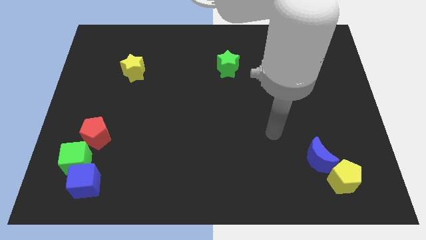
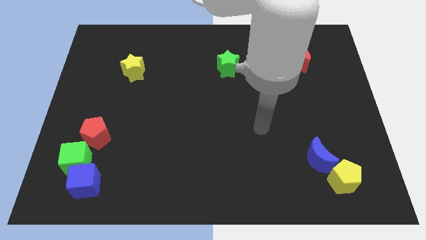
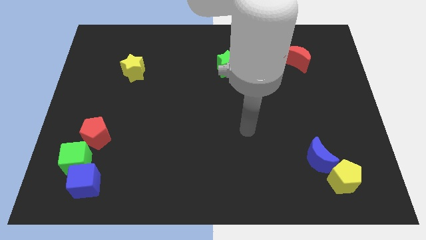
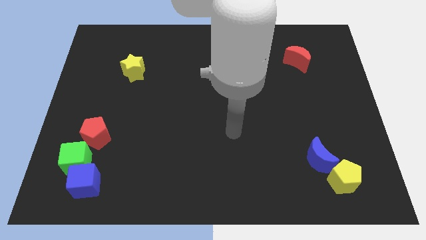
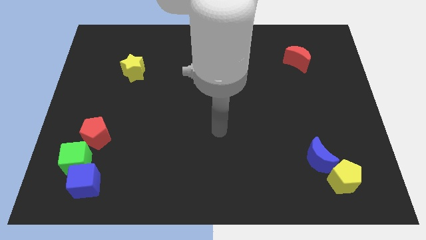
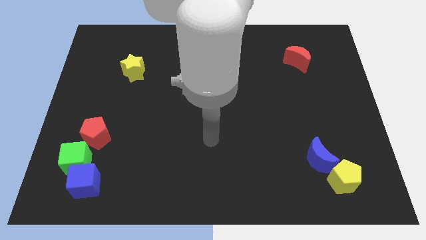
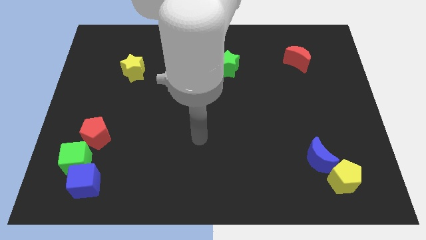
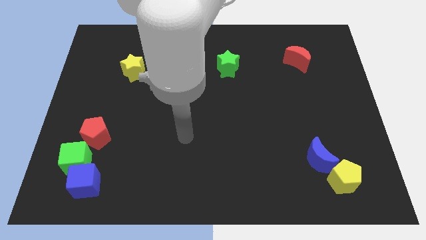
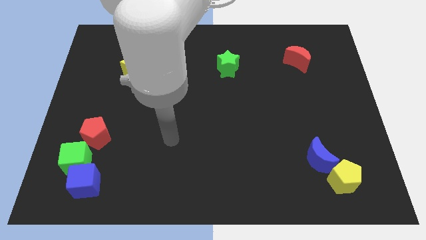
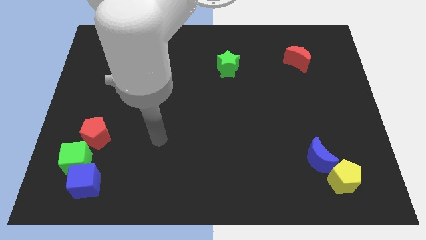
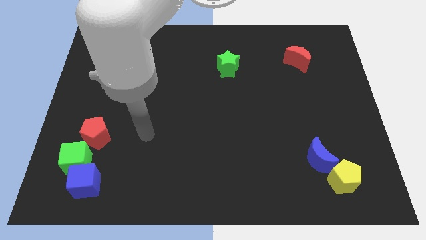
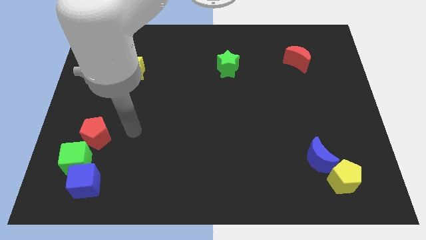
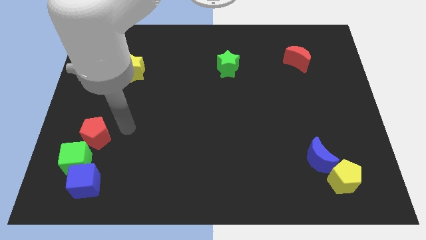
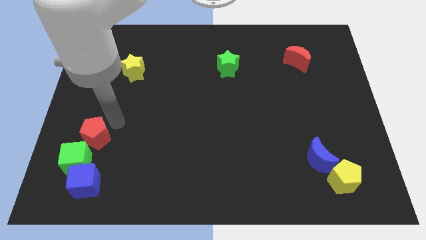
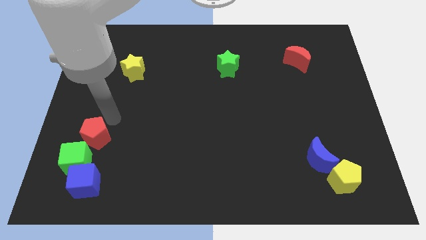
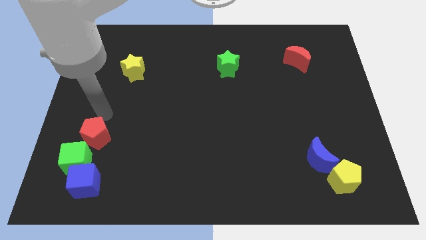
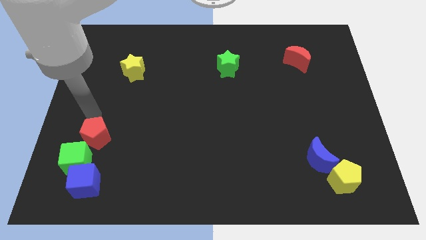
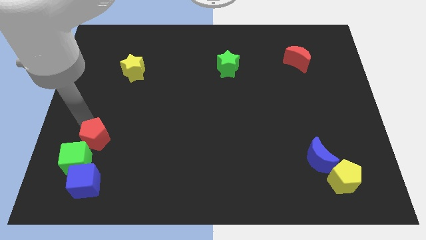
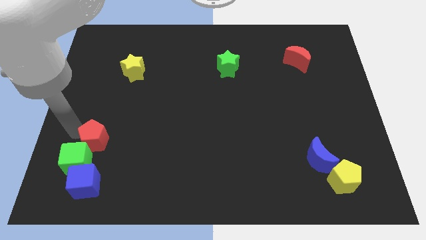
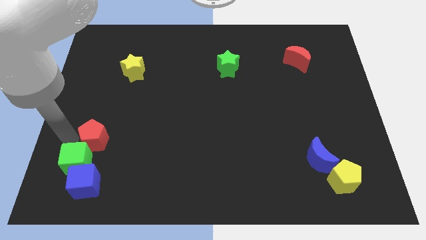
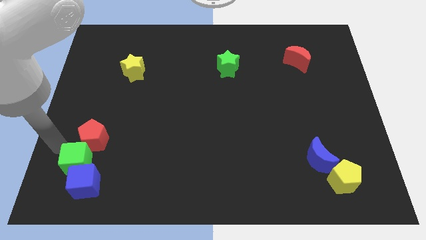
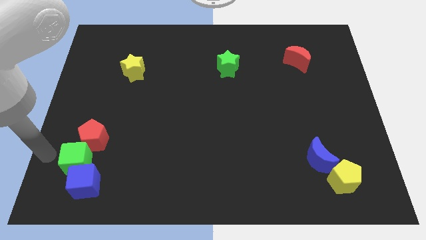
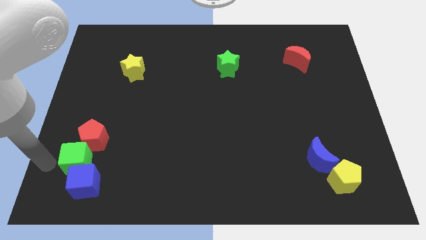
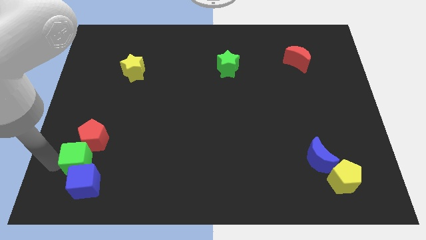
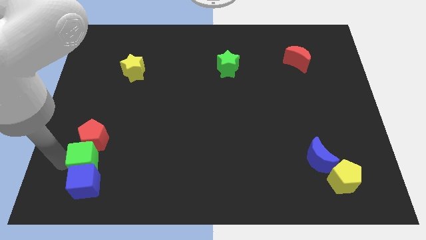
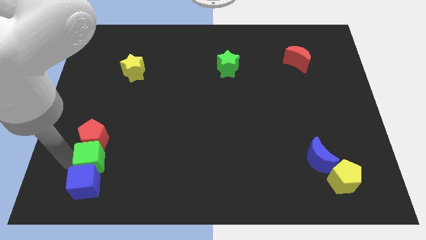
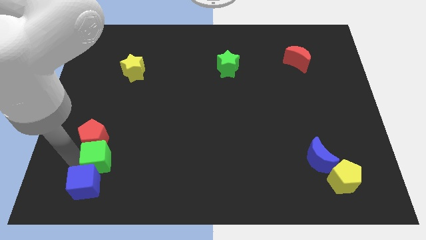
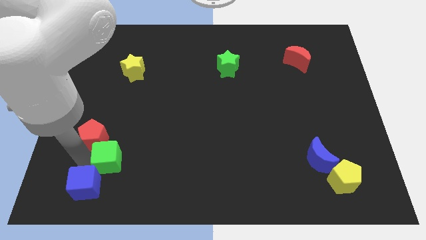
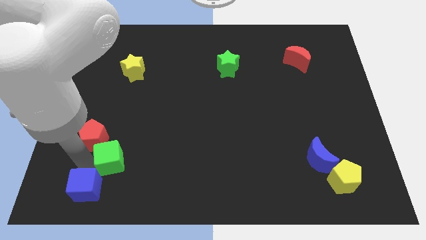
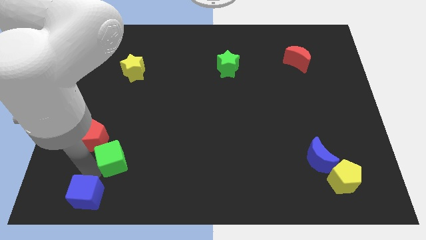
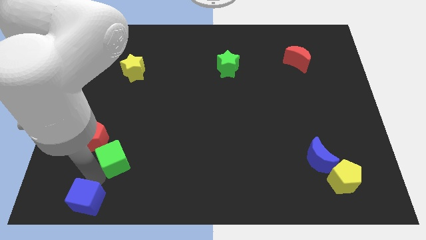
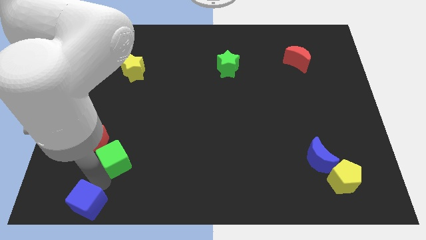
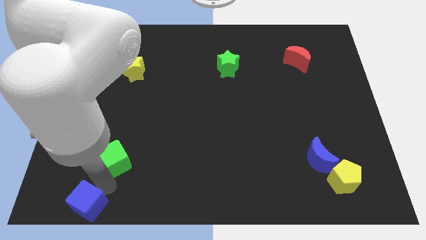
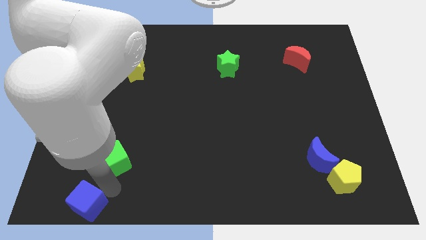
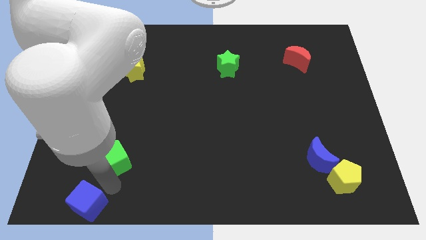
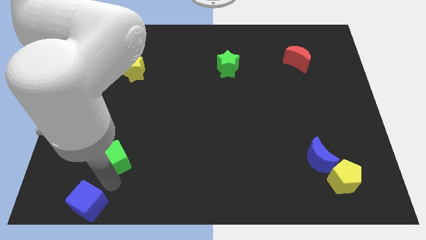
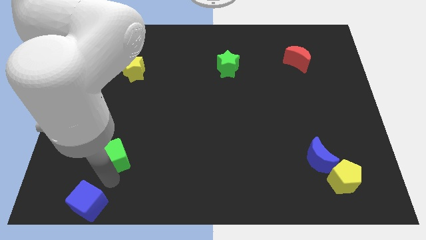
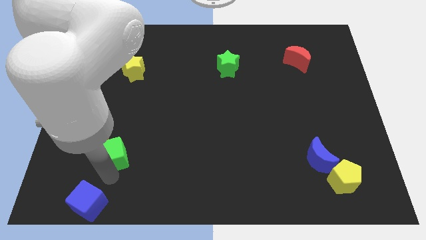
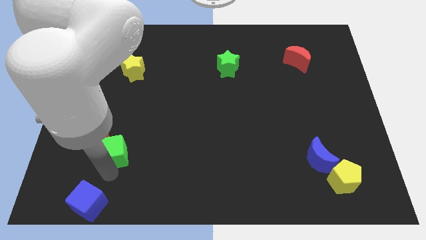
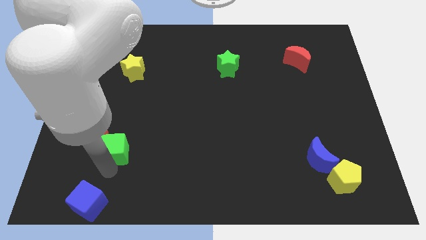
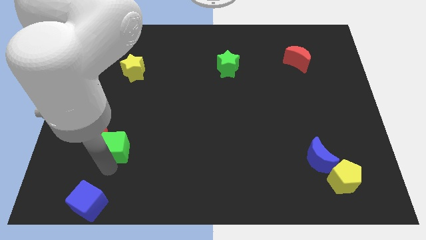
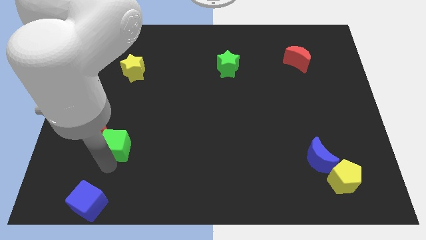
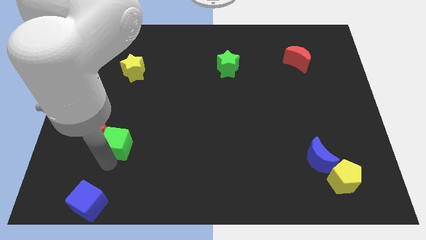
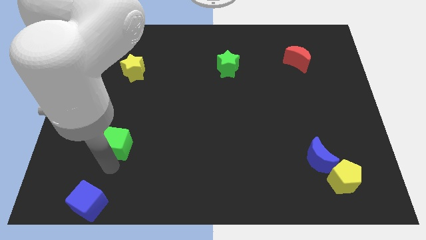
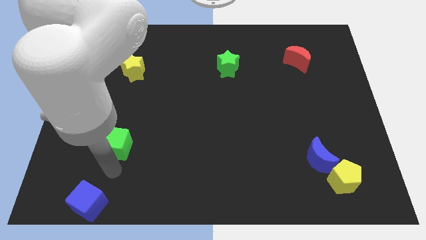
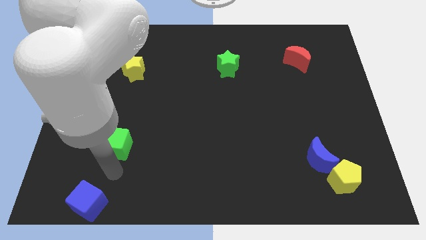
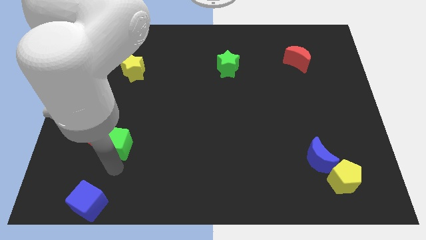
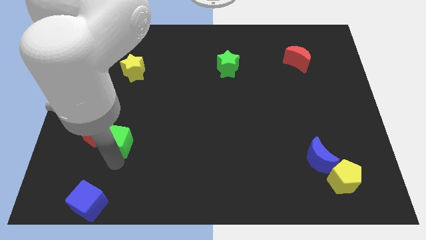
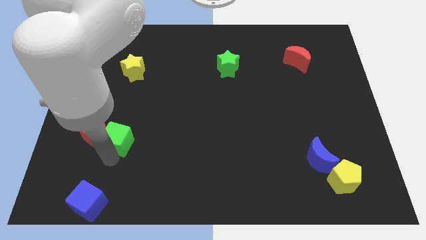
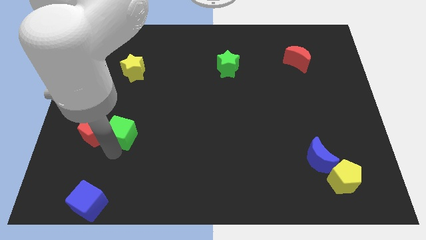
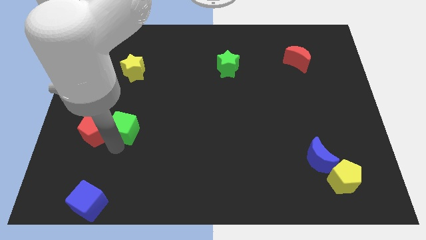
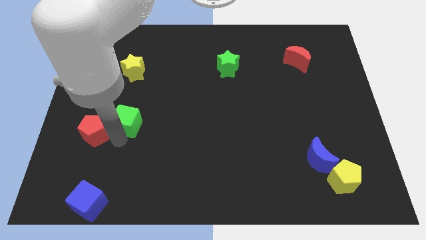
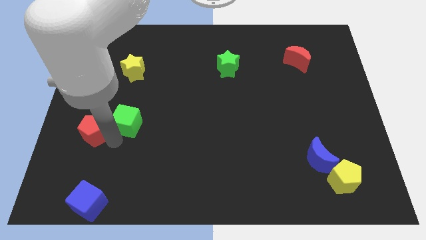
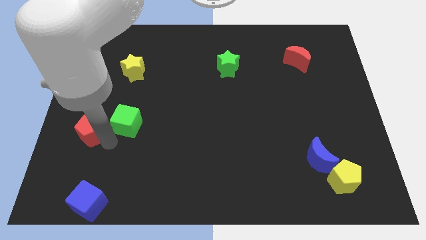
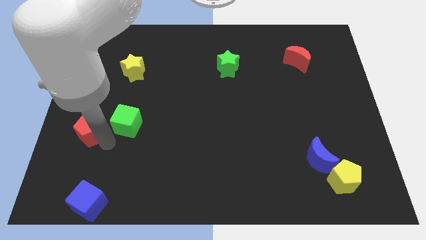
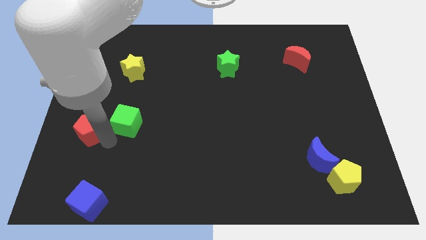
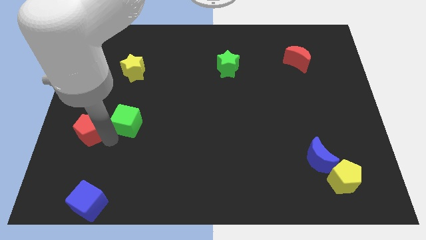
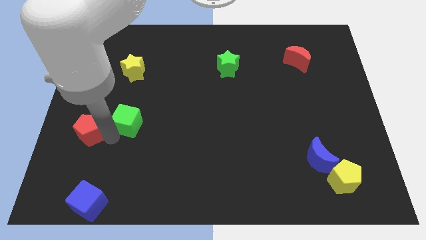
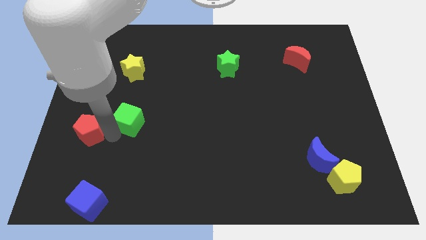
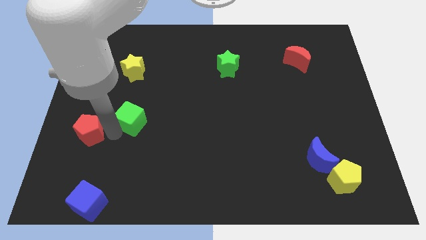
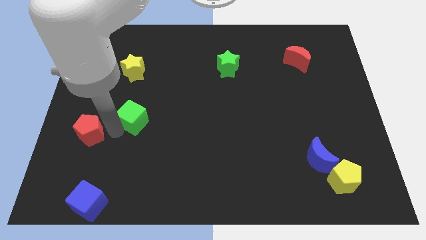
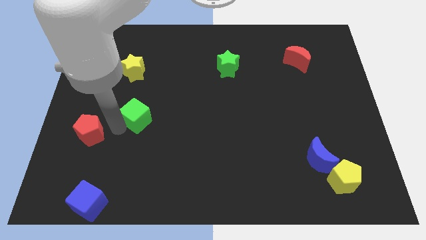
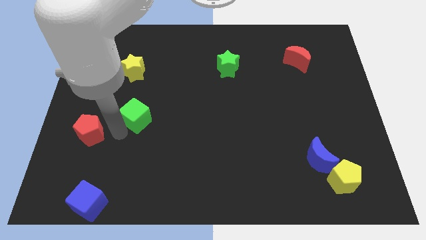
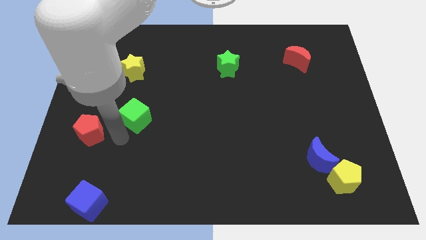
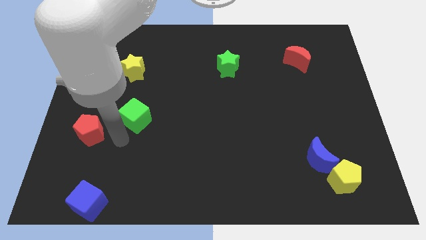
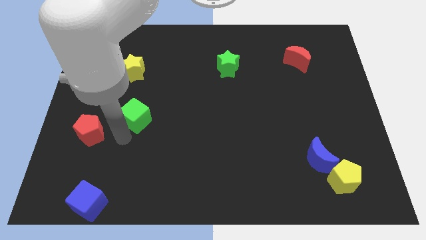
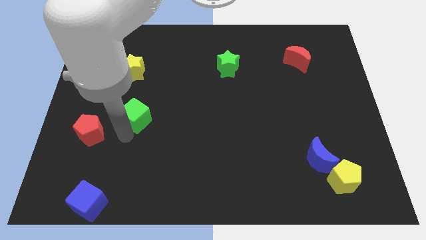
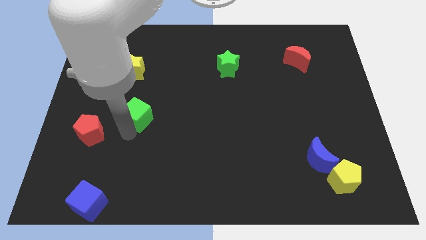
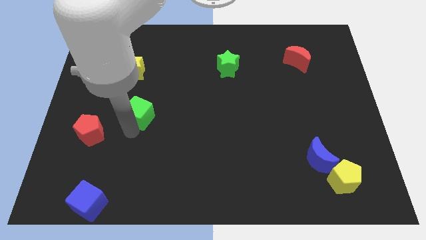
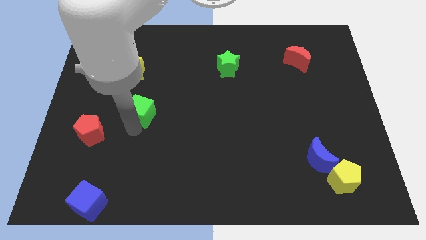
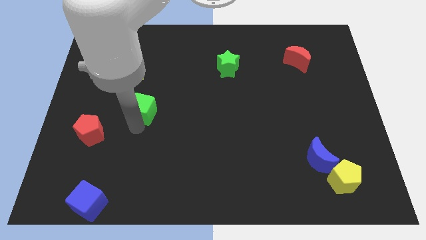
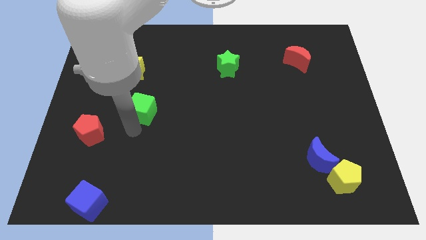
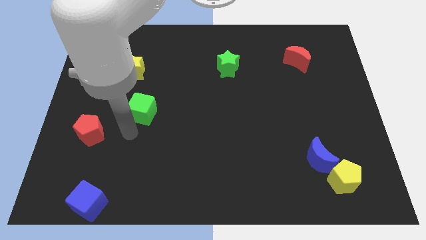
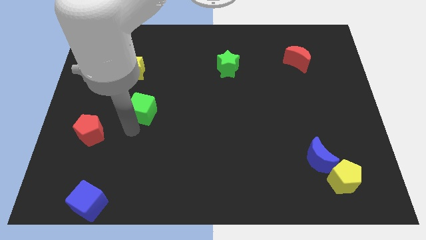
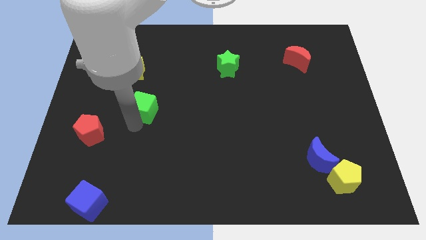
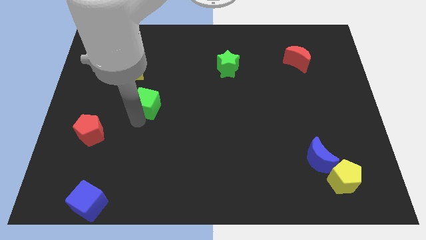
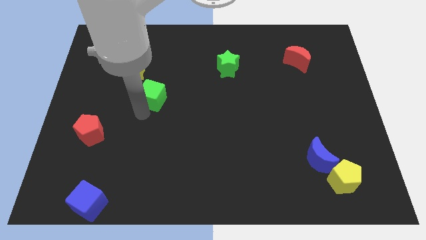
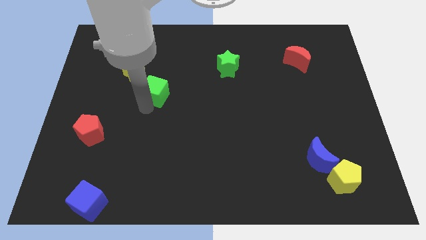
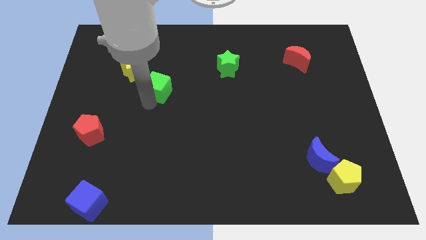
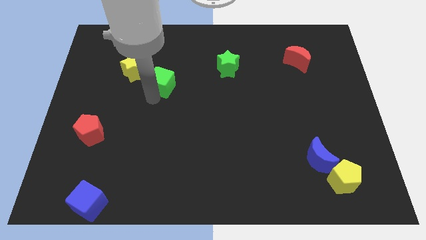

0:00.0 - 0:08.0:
put the green cube just right of the yellow star
